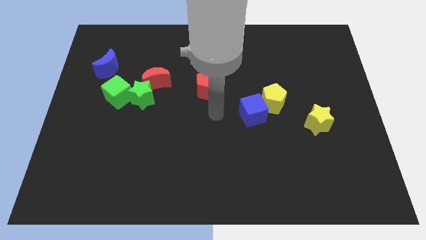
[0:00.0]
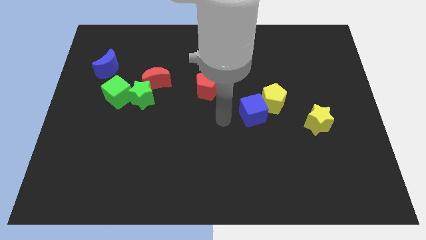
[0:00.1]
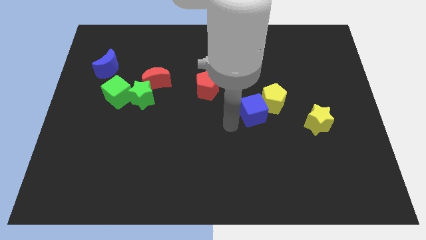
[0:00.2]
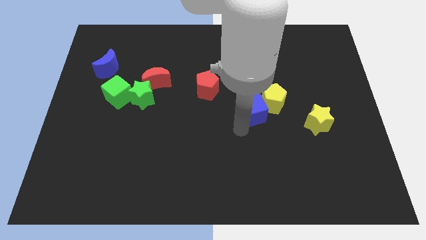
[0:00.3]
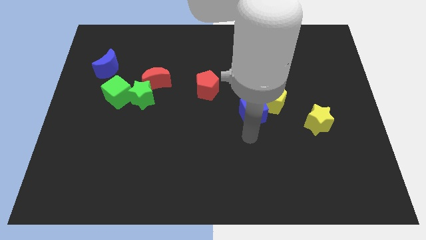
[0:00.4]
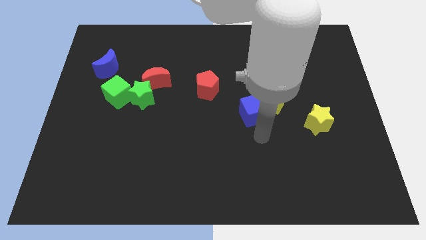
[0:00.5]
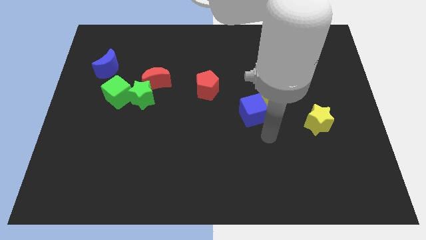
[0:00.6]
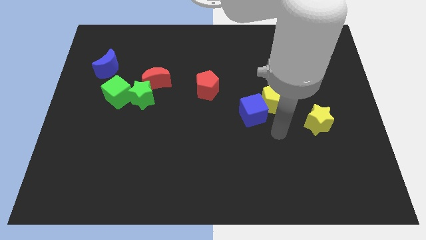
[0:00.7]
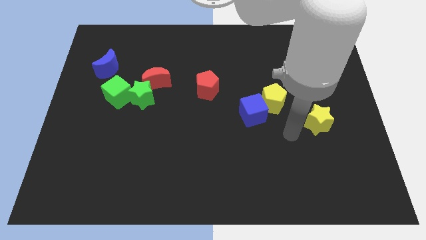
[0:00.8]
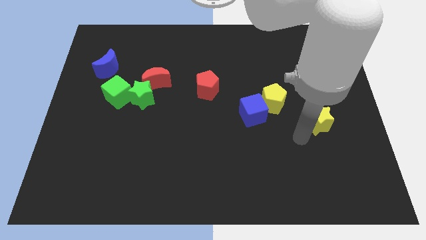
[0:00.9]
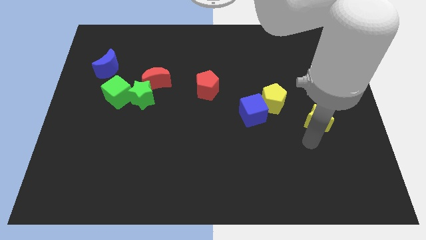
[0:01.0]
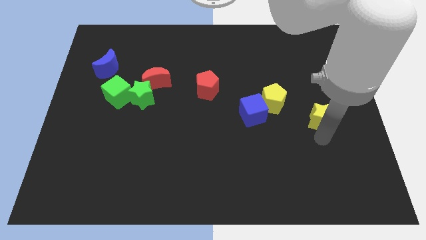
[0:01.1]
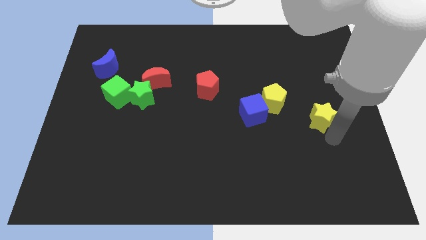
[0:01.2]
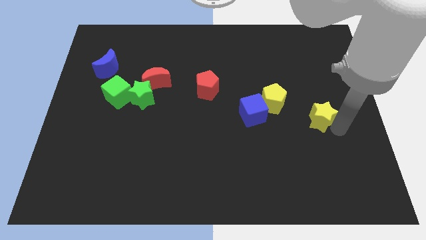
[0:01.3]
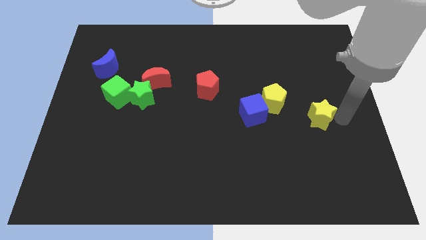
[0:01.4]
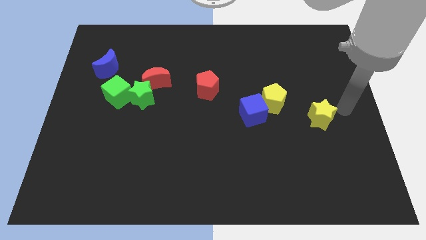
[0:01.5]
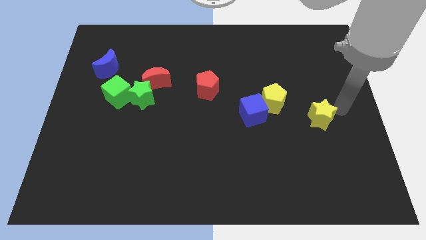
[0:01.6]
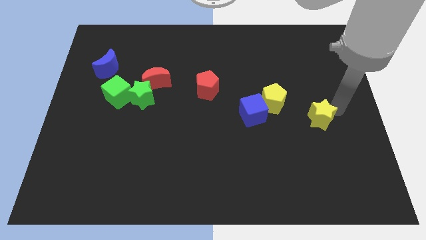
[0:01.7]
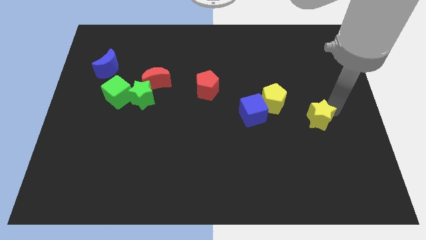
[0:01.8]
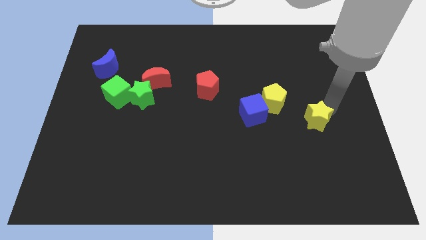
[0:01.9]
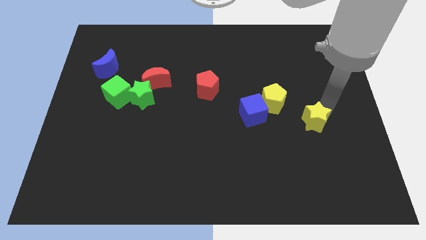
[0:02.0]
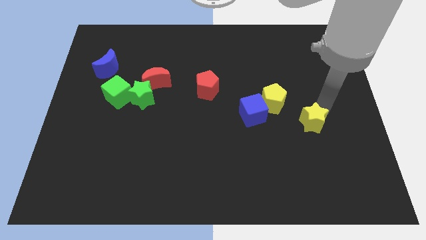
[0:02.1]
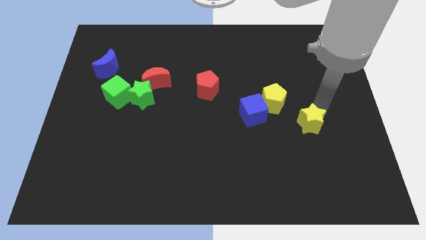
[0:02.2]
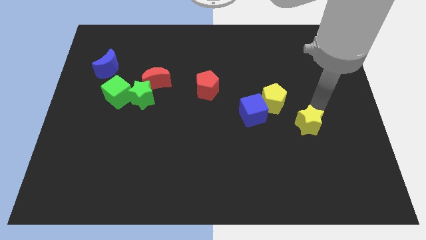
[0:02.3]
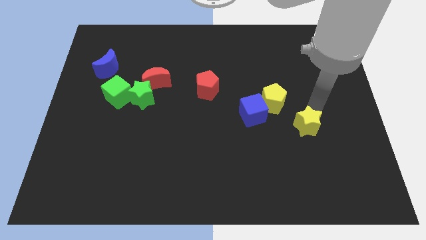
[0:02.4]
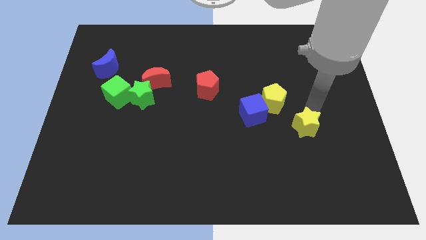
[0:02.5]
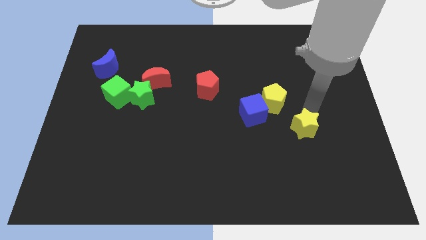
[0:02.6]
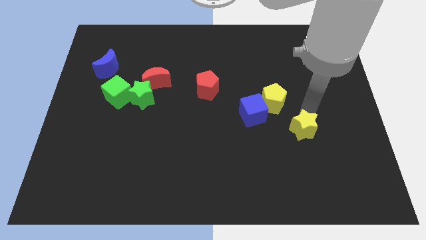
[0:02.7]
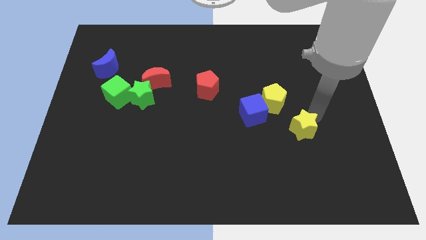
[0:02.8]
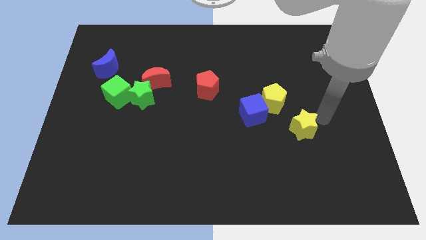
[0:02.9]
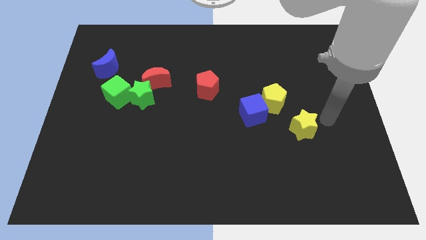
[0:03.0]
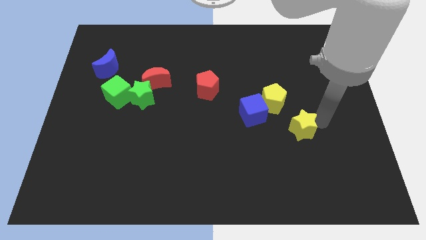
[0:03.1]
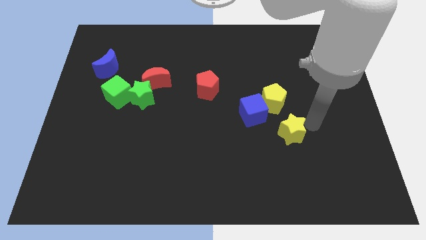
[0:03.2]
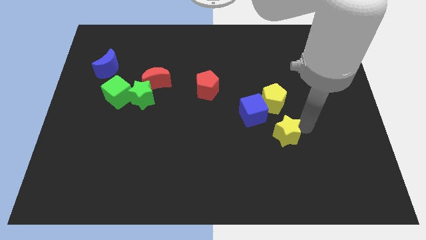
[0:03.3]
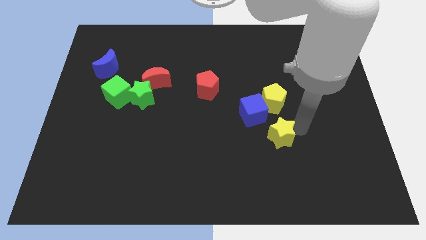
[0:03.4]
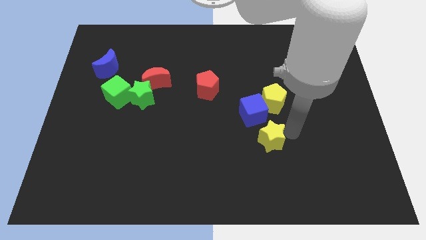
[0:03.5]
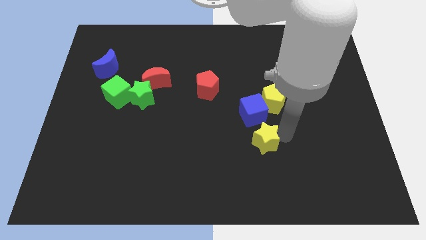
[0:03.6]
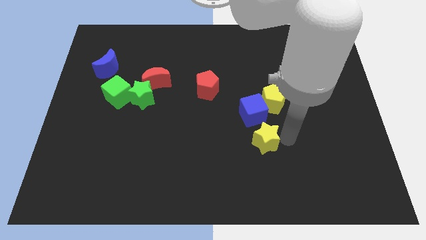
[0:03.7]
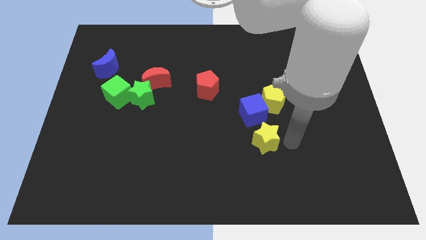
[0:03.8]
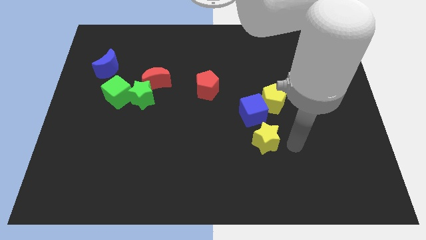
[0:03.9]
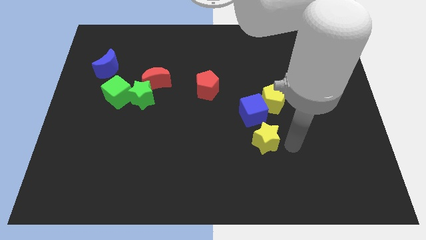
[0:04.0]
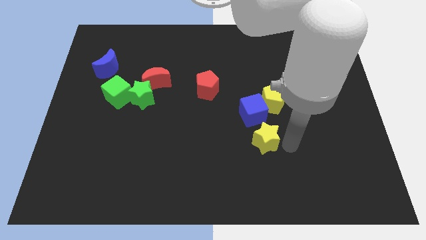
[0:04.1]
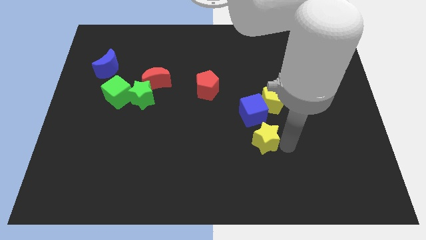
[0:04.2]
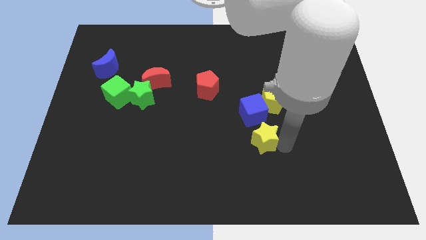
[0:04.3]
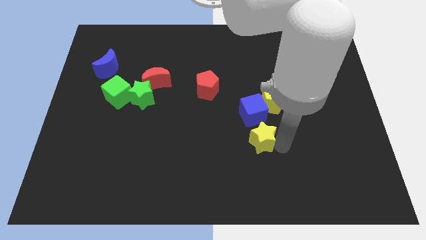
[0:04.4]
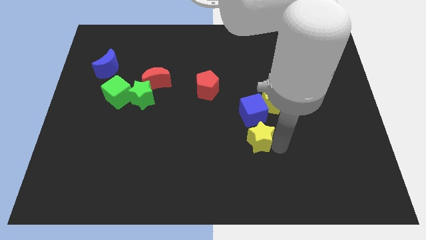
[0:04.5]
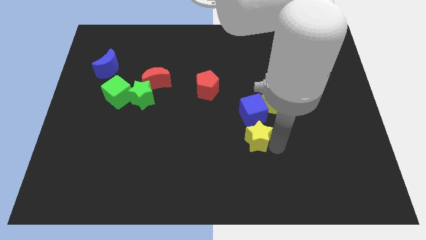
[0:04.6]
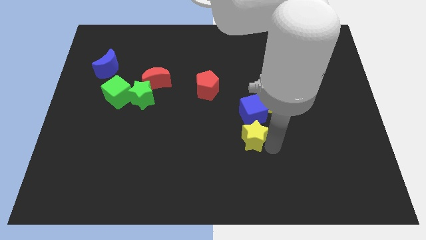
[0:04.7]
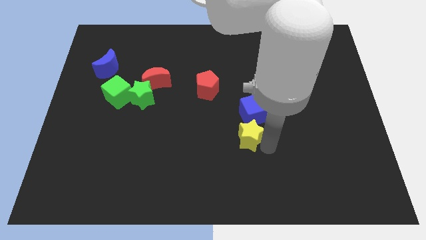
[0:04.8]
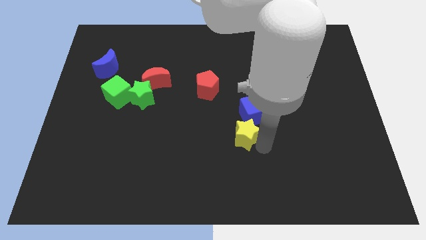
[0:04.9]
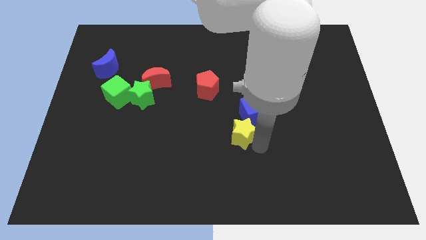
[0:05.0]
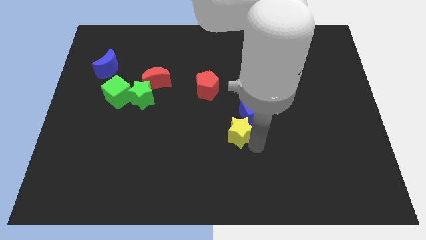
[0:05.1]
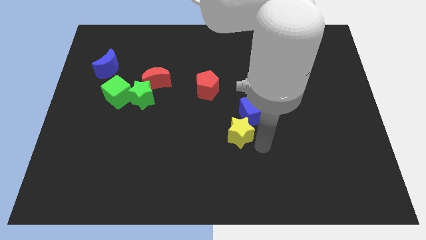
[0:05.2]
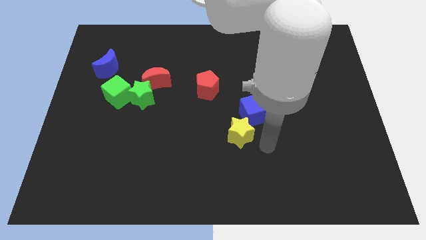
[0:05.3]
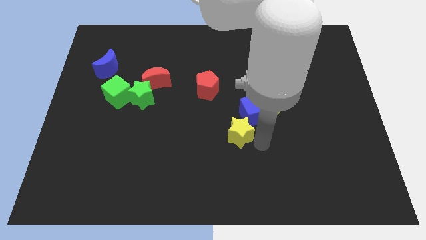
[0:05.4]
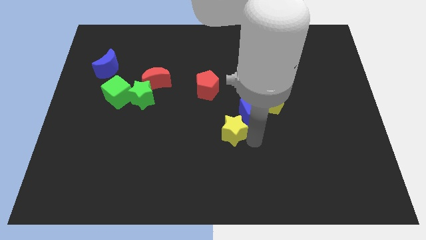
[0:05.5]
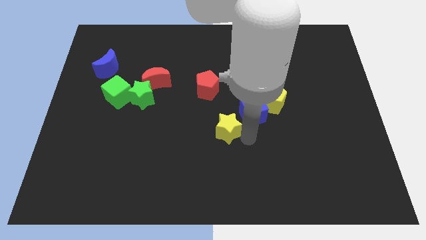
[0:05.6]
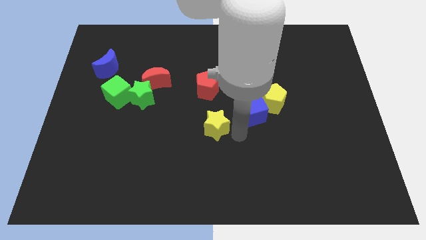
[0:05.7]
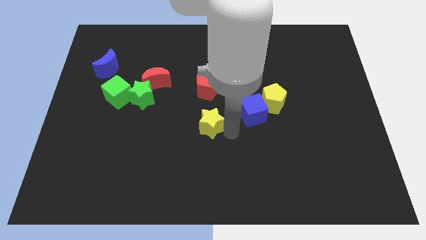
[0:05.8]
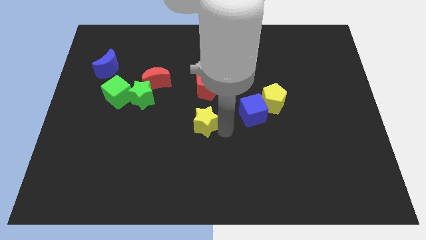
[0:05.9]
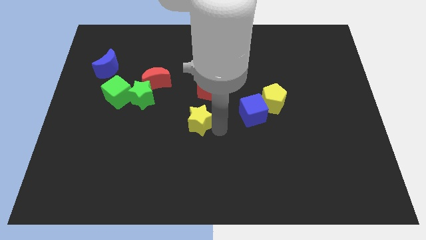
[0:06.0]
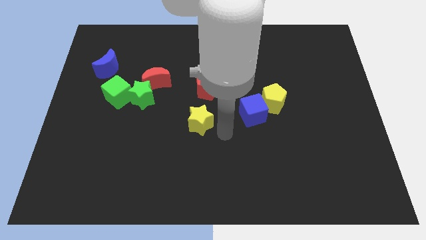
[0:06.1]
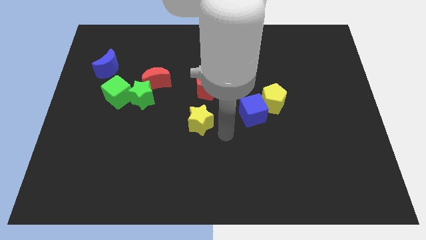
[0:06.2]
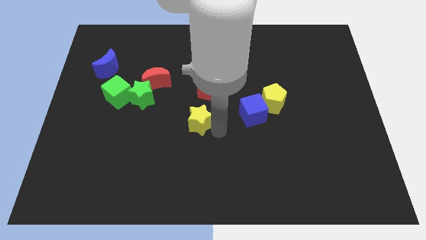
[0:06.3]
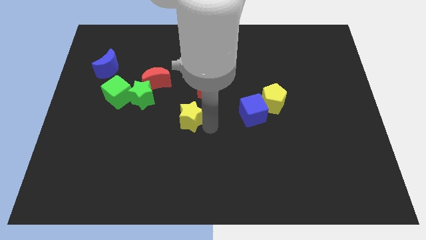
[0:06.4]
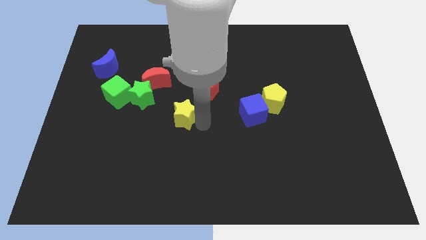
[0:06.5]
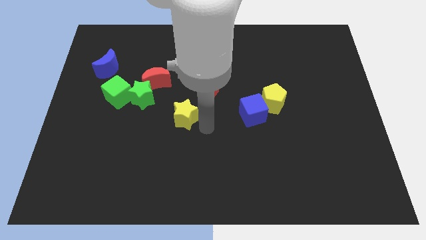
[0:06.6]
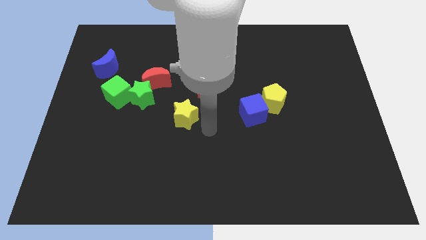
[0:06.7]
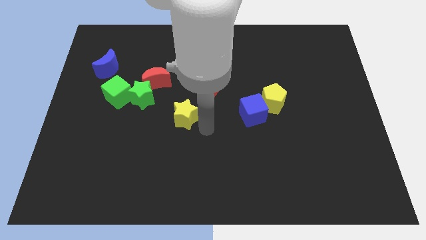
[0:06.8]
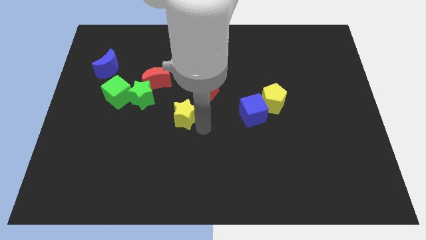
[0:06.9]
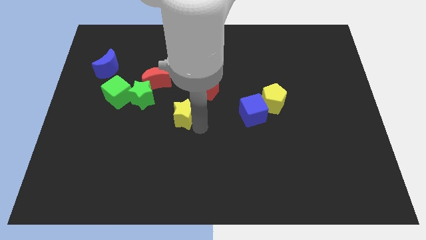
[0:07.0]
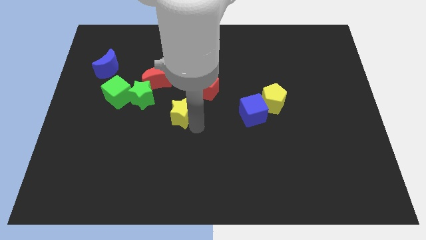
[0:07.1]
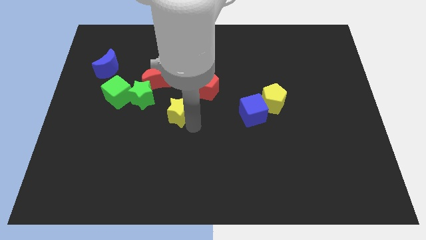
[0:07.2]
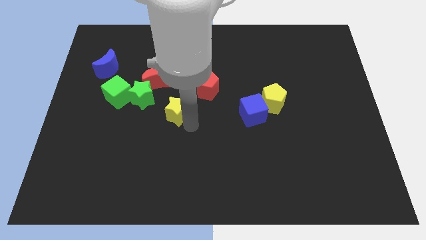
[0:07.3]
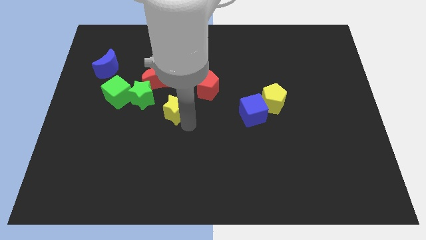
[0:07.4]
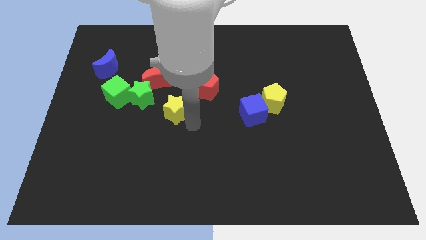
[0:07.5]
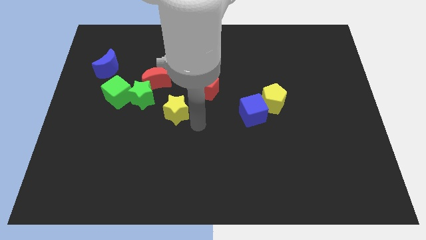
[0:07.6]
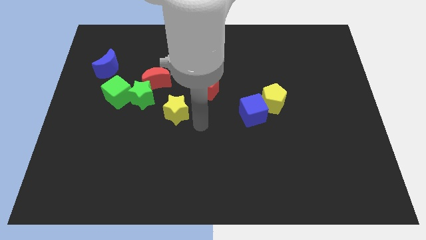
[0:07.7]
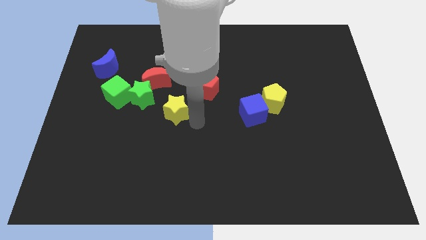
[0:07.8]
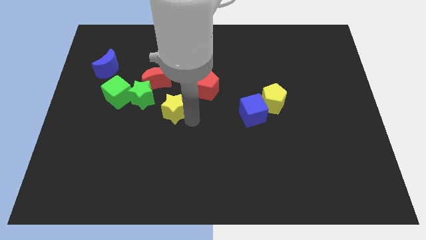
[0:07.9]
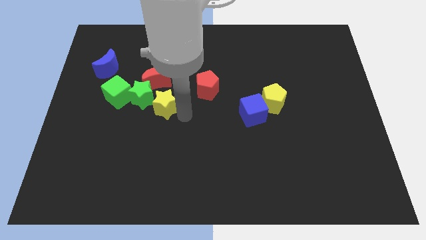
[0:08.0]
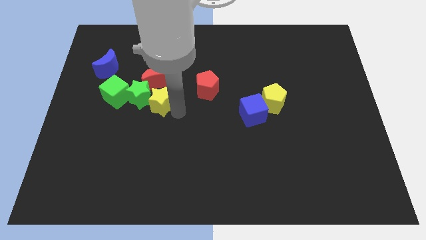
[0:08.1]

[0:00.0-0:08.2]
put the yellow star close to the green star
